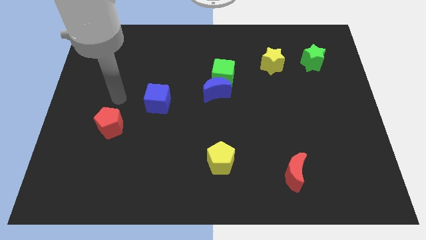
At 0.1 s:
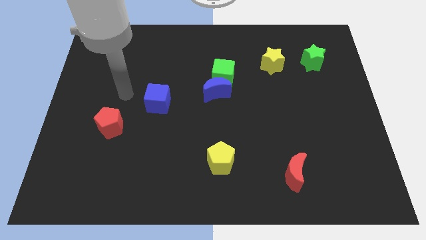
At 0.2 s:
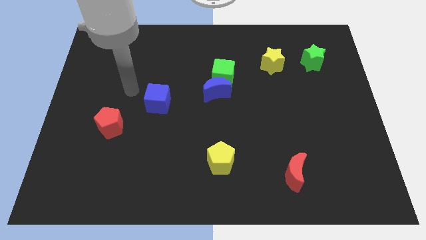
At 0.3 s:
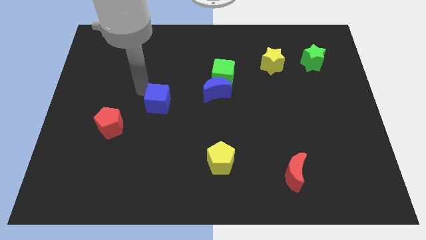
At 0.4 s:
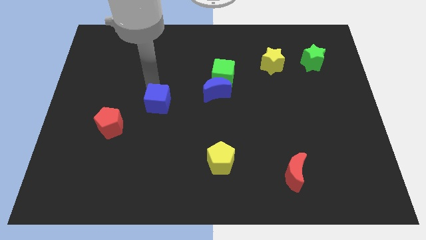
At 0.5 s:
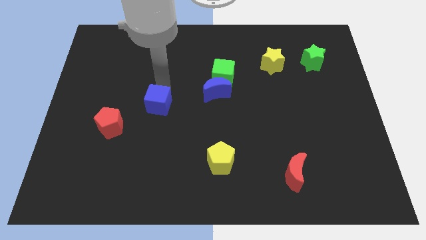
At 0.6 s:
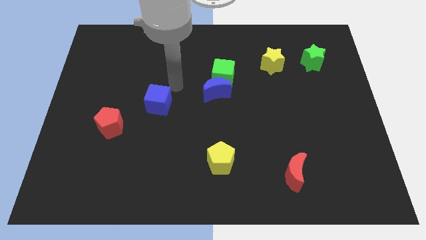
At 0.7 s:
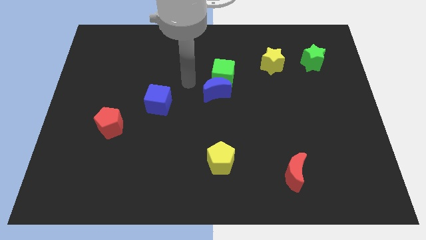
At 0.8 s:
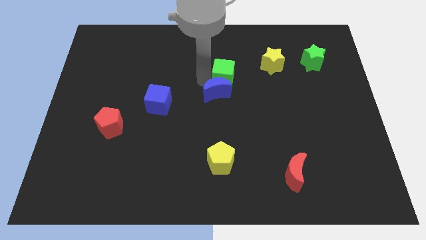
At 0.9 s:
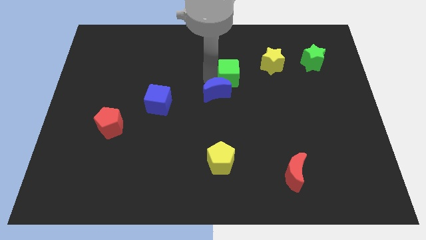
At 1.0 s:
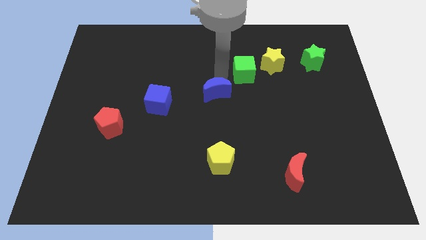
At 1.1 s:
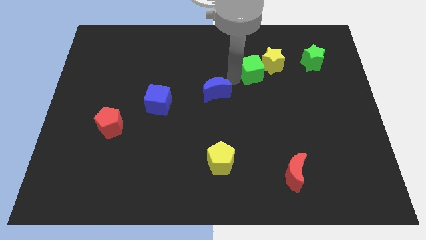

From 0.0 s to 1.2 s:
separate the blue moon from the green cube

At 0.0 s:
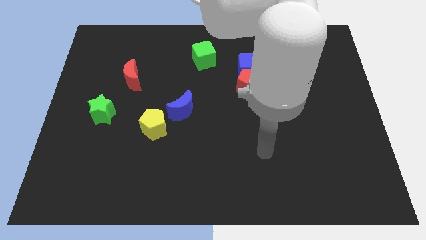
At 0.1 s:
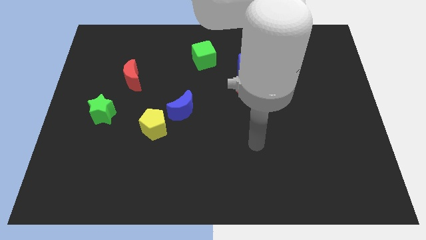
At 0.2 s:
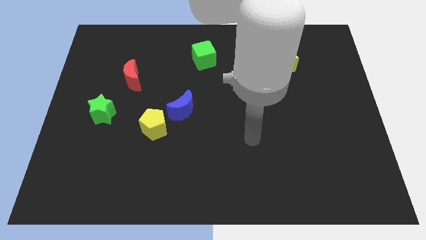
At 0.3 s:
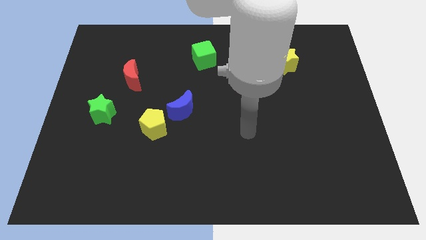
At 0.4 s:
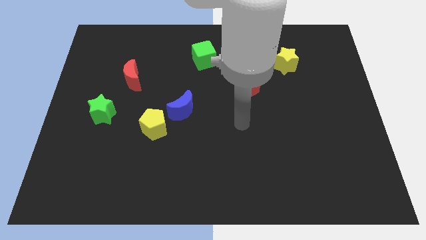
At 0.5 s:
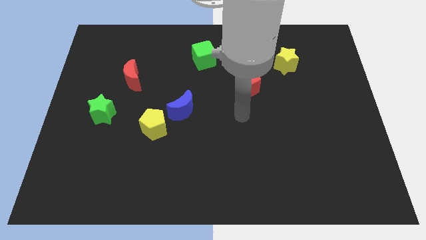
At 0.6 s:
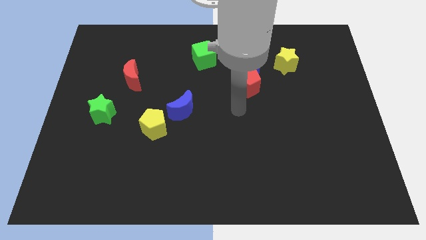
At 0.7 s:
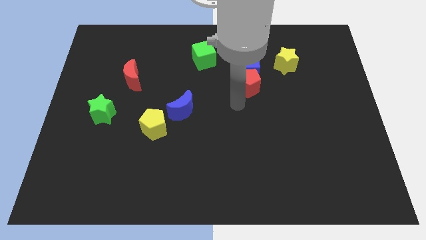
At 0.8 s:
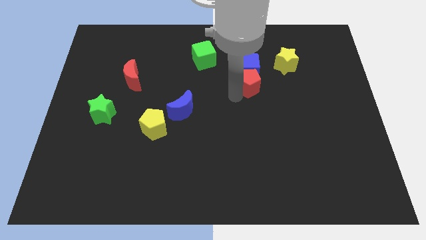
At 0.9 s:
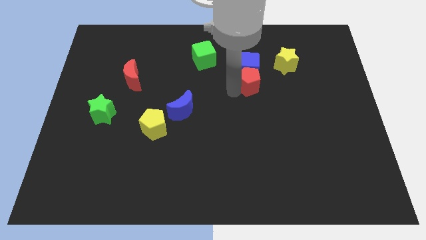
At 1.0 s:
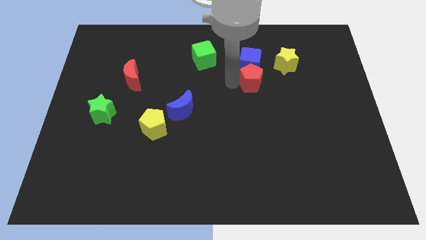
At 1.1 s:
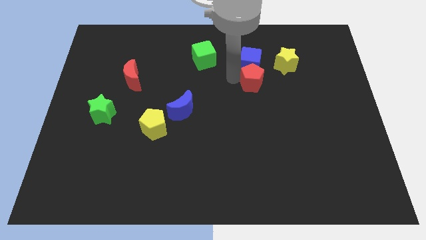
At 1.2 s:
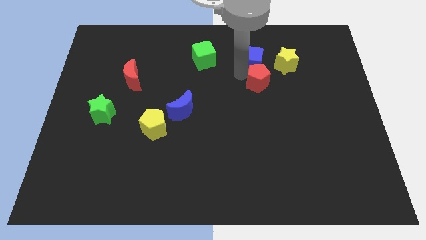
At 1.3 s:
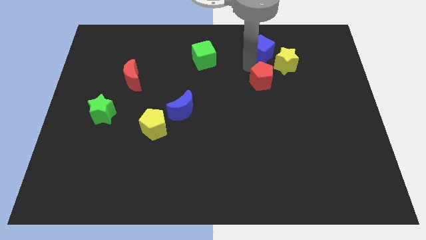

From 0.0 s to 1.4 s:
separate the red pentagon from the blue cube

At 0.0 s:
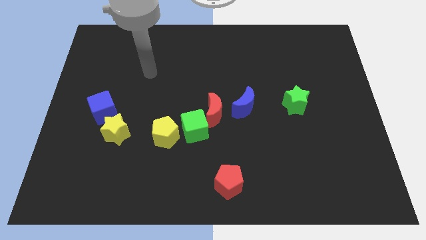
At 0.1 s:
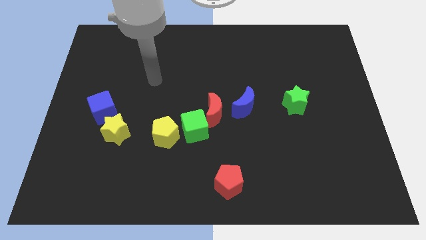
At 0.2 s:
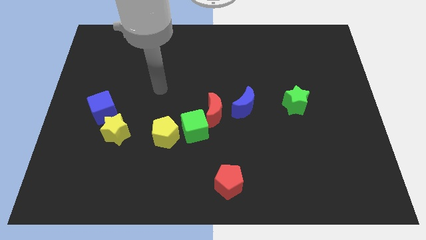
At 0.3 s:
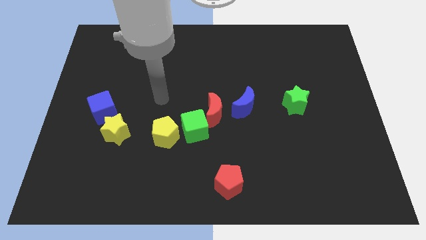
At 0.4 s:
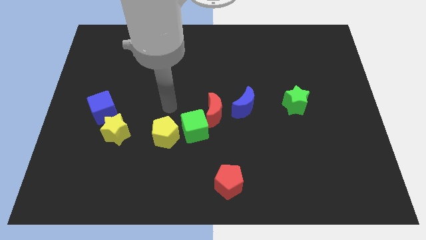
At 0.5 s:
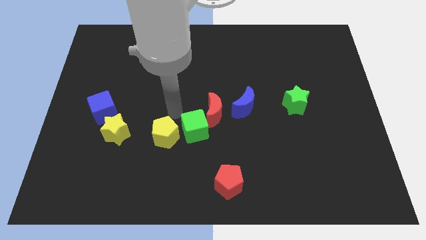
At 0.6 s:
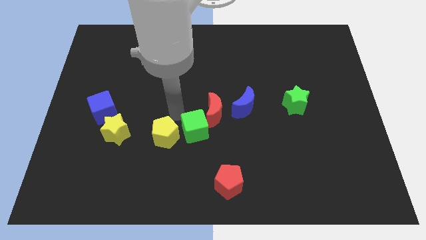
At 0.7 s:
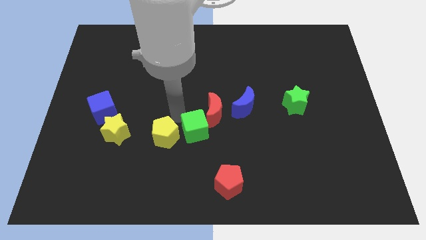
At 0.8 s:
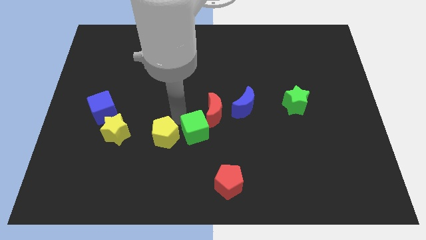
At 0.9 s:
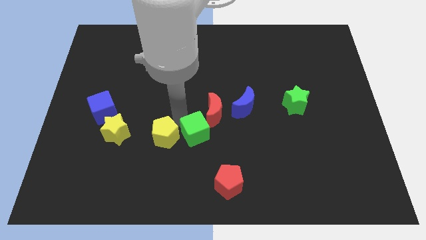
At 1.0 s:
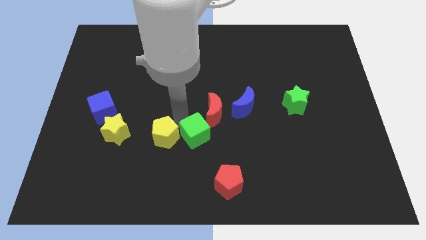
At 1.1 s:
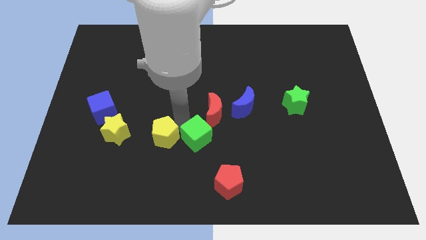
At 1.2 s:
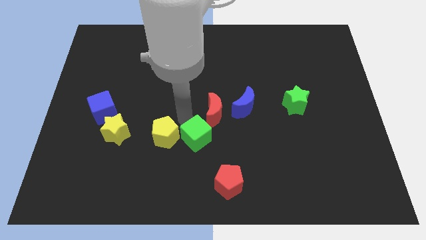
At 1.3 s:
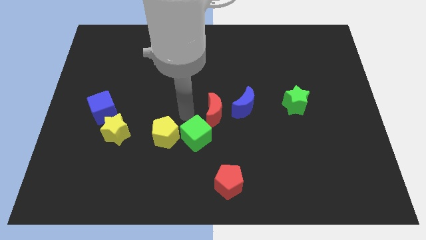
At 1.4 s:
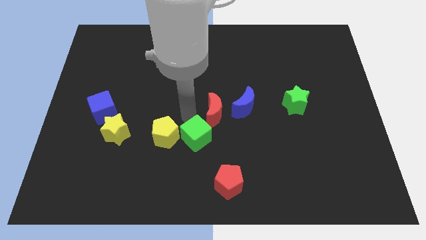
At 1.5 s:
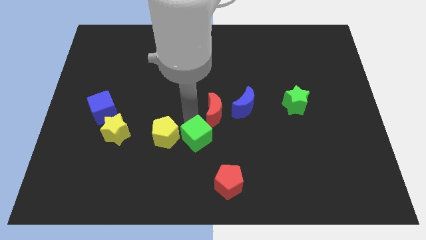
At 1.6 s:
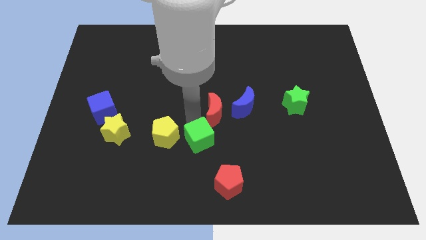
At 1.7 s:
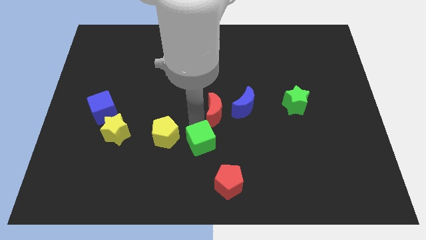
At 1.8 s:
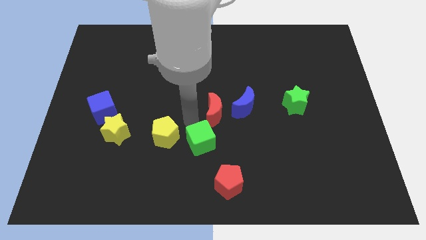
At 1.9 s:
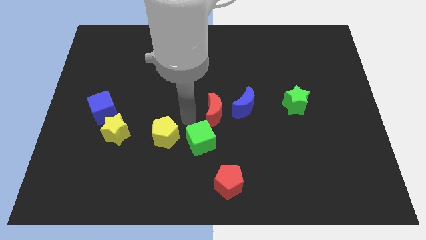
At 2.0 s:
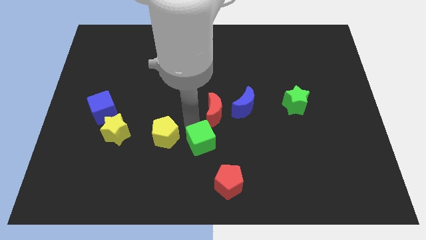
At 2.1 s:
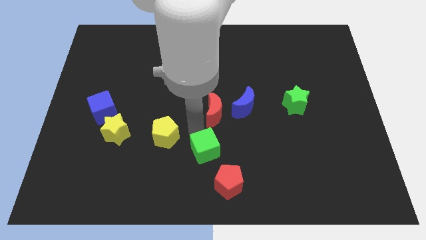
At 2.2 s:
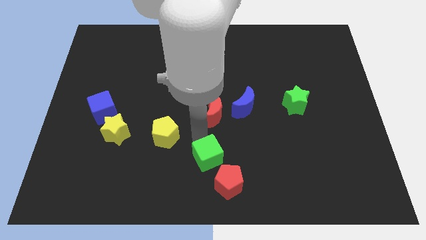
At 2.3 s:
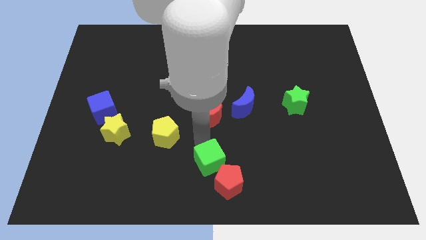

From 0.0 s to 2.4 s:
move the green cube away from the red moon and yellow pentagon

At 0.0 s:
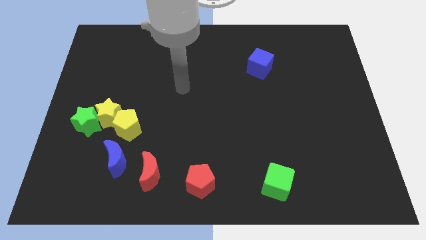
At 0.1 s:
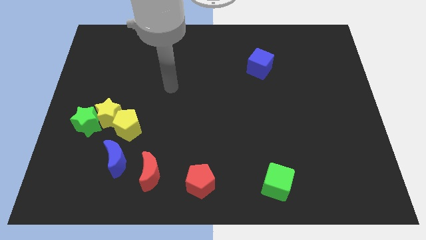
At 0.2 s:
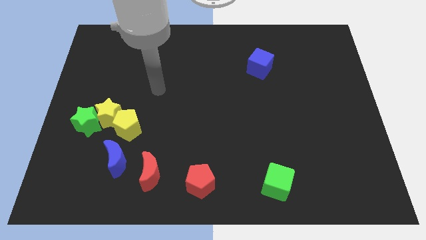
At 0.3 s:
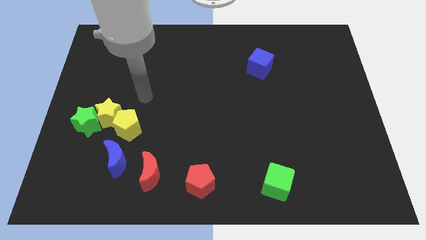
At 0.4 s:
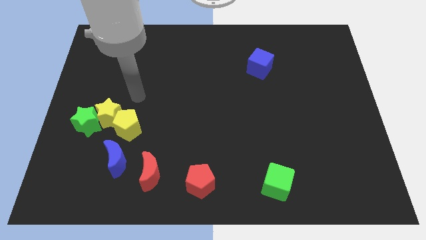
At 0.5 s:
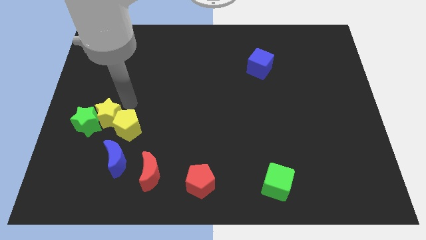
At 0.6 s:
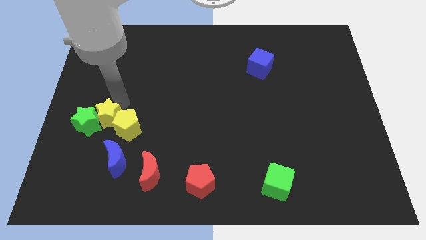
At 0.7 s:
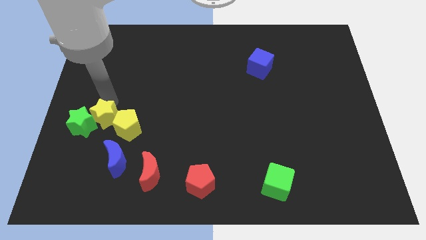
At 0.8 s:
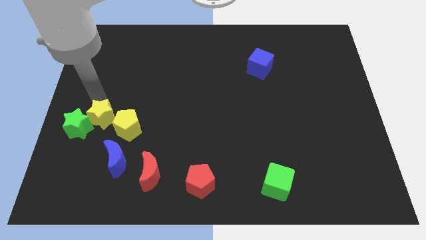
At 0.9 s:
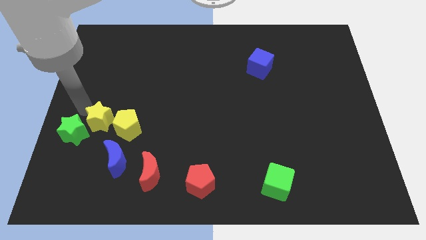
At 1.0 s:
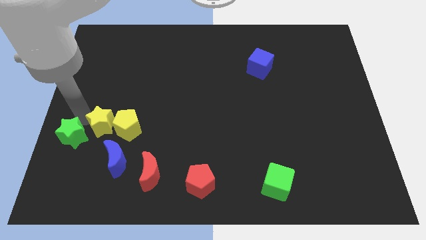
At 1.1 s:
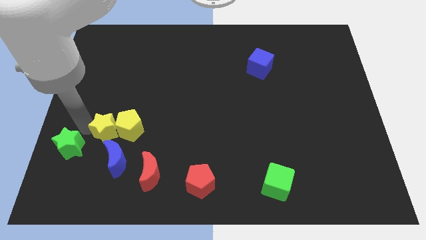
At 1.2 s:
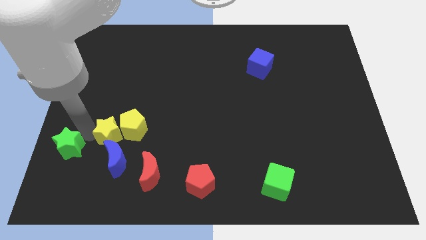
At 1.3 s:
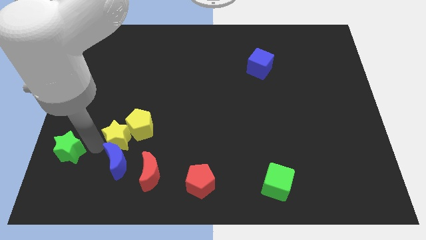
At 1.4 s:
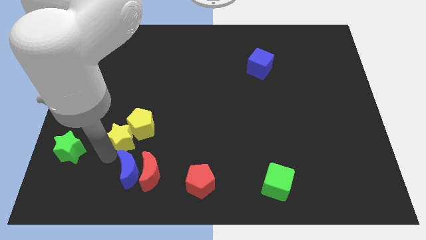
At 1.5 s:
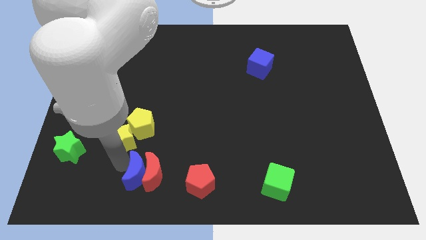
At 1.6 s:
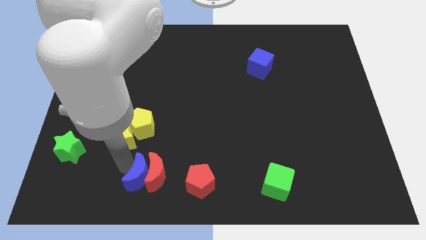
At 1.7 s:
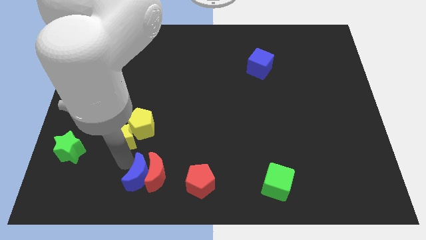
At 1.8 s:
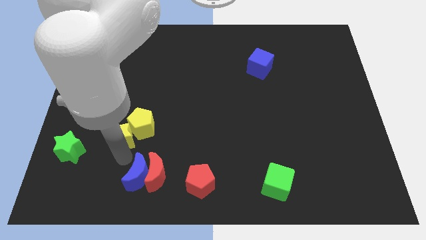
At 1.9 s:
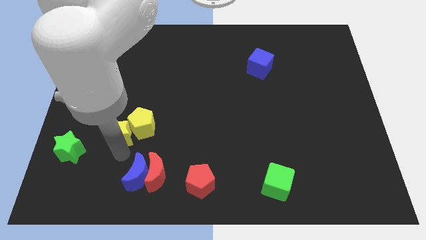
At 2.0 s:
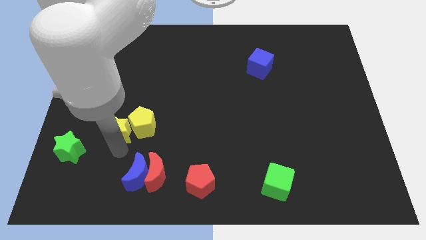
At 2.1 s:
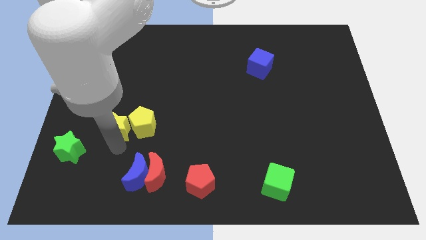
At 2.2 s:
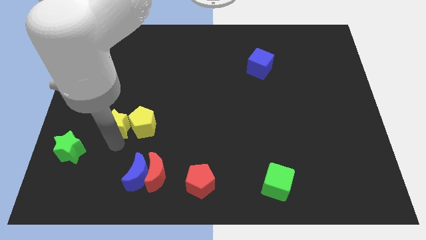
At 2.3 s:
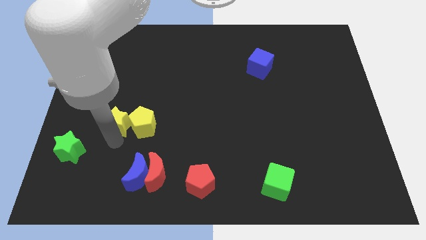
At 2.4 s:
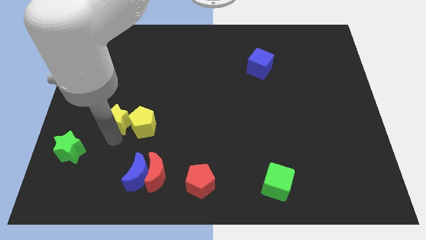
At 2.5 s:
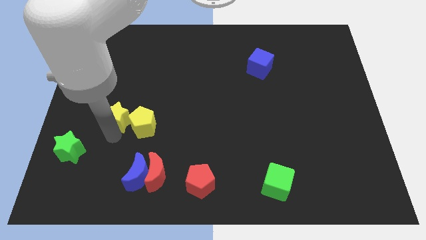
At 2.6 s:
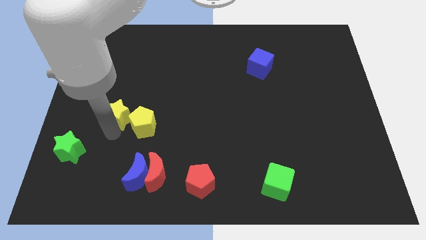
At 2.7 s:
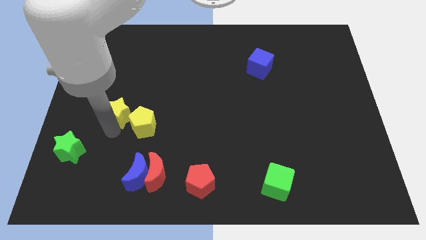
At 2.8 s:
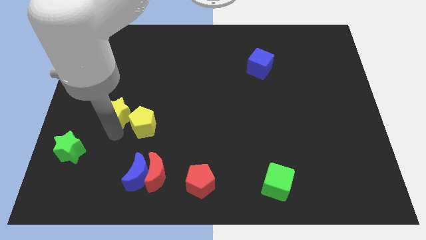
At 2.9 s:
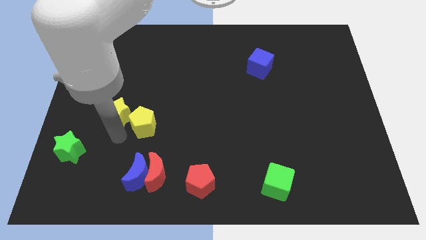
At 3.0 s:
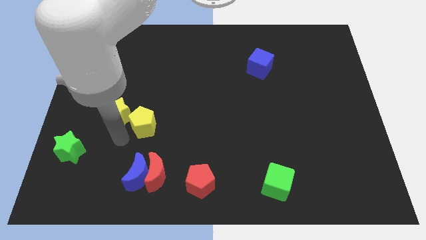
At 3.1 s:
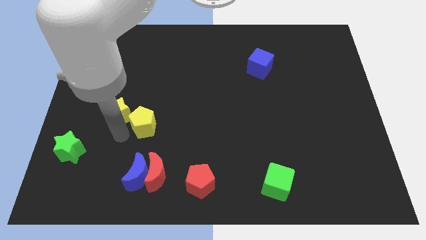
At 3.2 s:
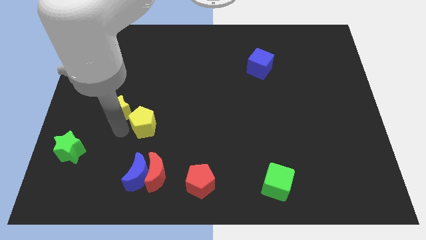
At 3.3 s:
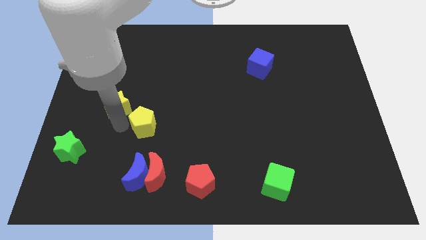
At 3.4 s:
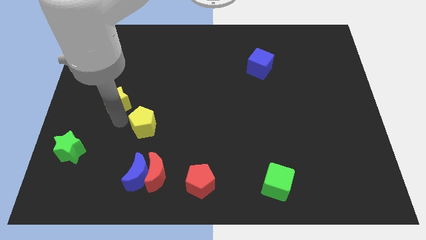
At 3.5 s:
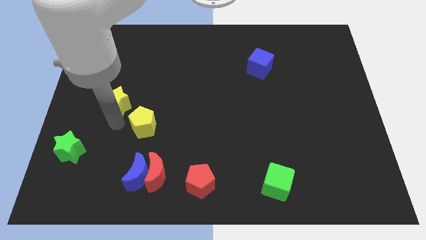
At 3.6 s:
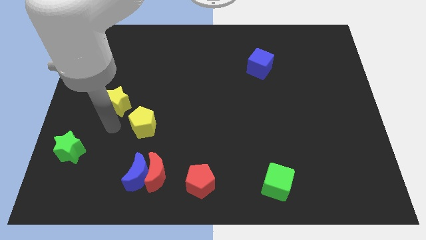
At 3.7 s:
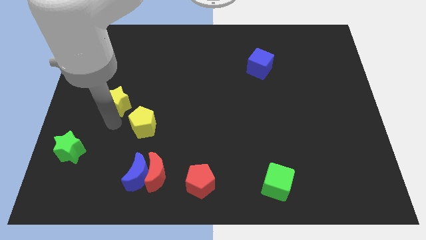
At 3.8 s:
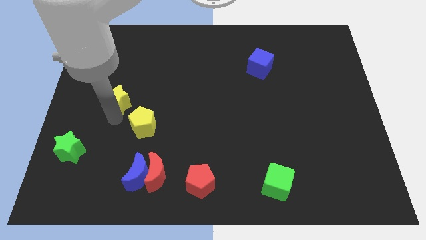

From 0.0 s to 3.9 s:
separate the yellow star from the green star and yellow pentagon

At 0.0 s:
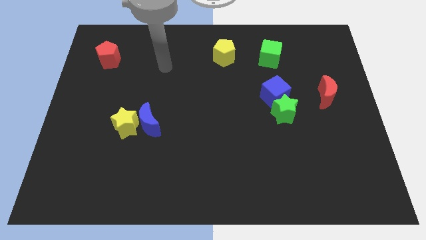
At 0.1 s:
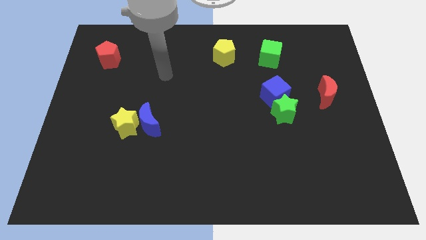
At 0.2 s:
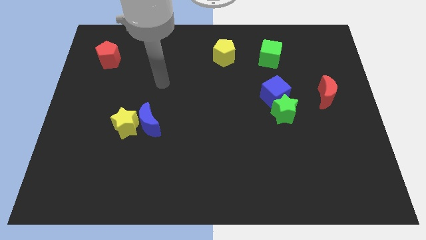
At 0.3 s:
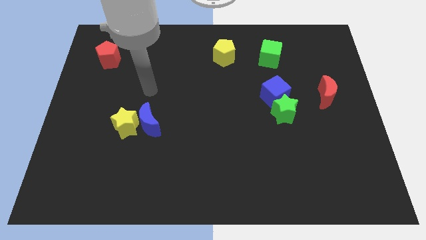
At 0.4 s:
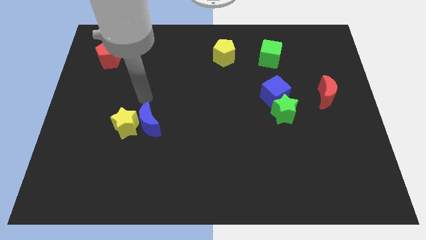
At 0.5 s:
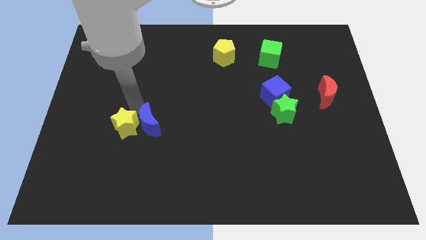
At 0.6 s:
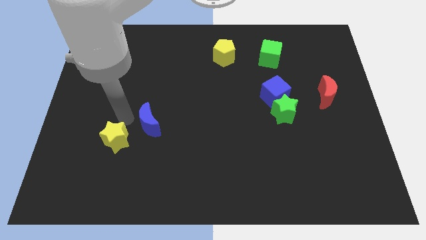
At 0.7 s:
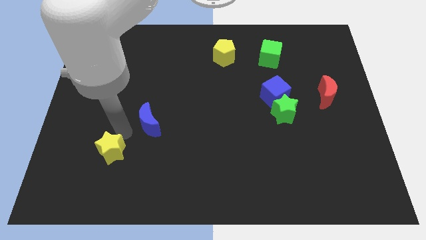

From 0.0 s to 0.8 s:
pull the blue moon apart from the yellow star
